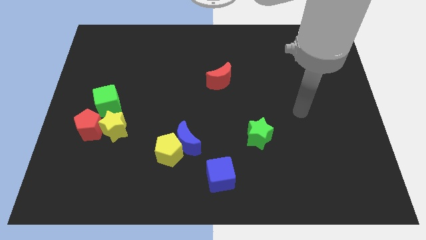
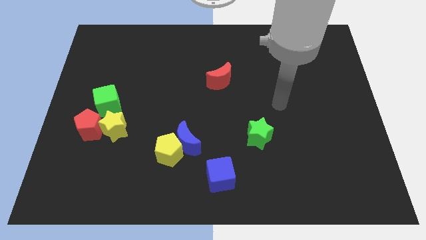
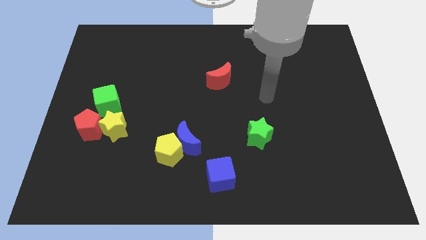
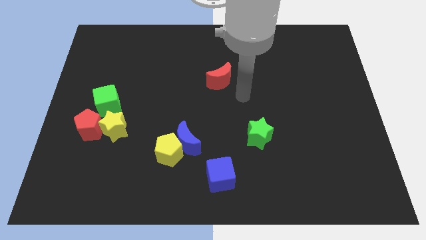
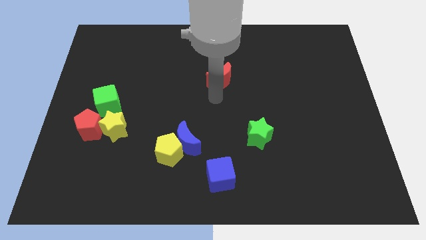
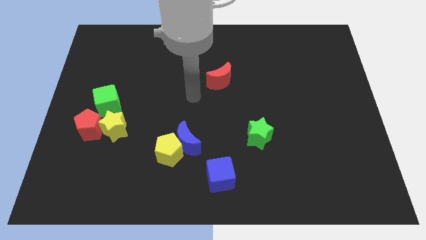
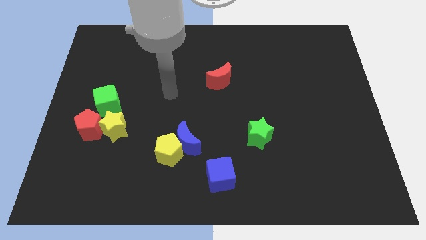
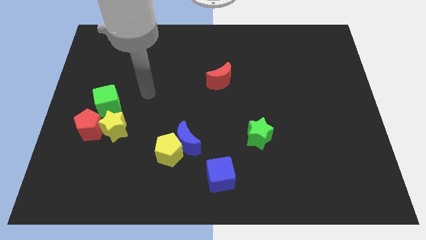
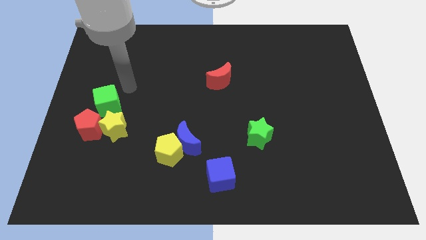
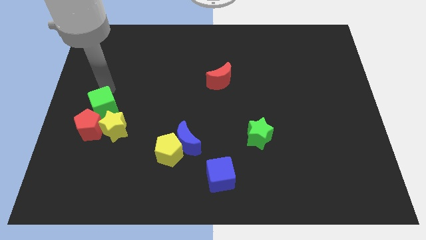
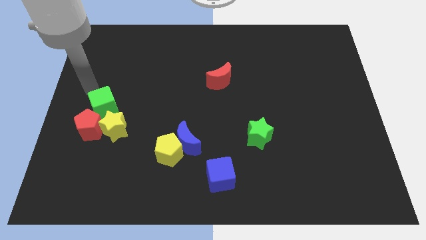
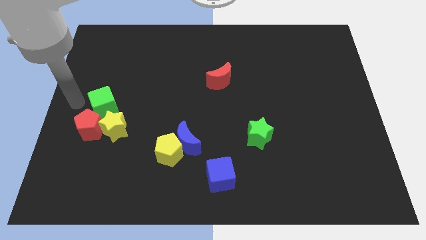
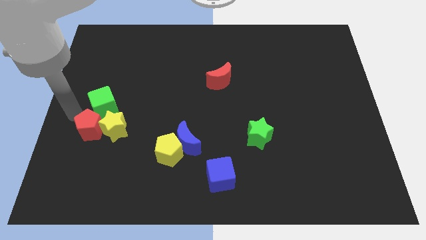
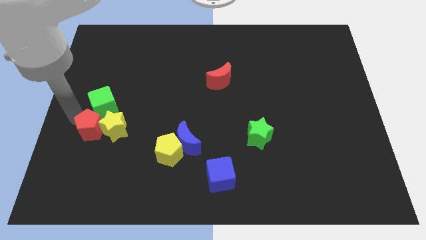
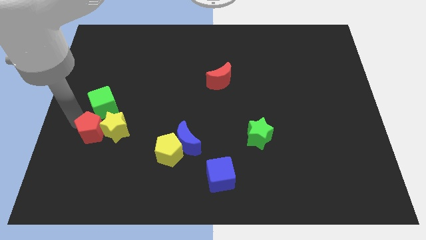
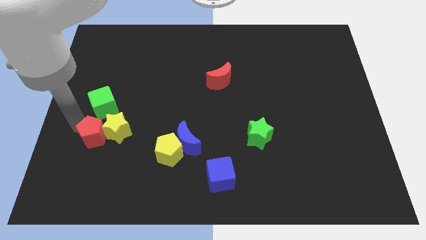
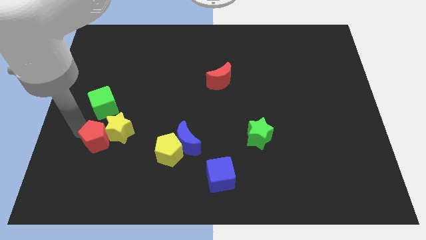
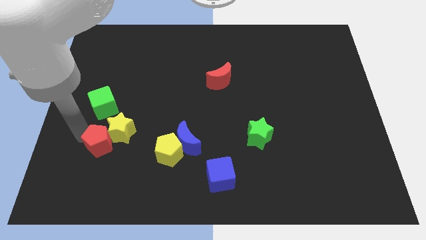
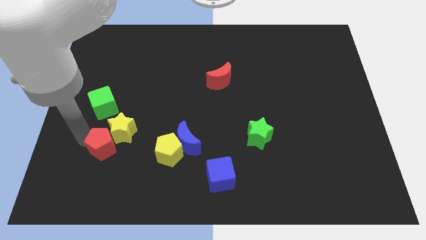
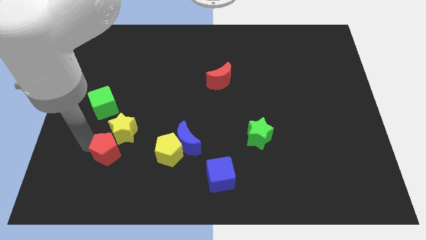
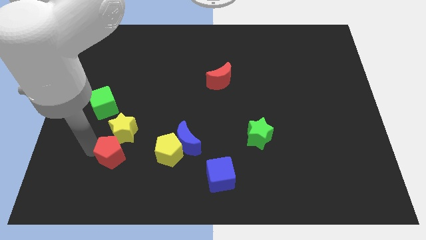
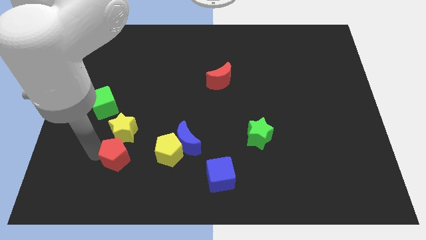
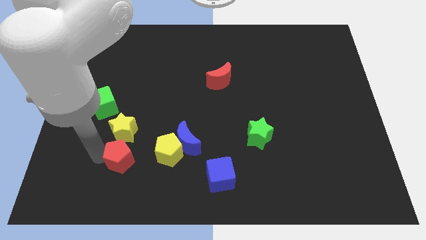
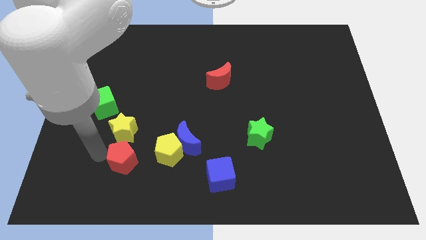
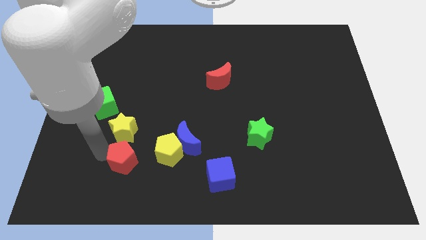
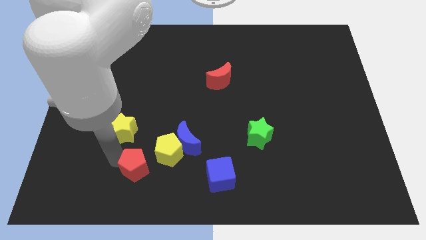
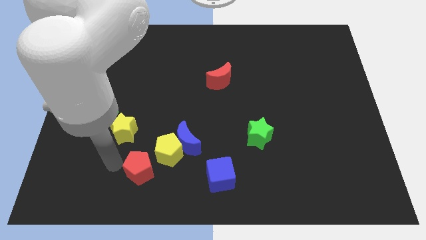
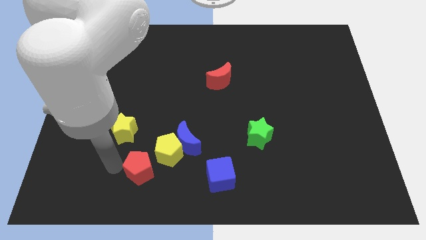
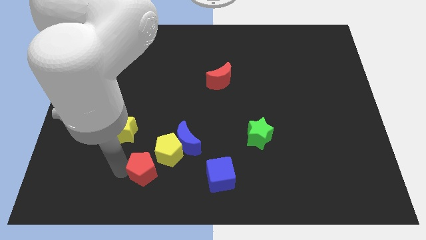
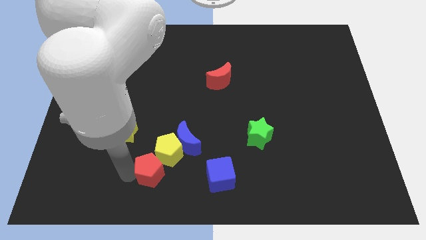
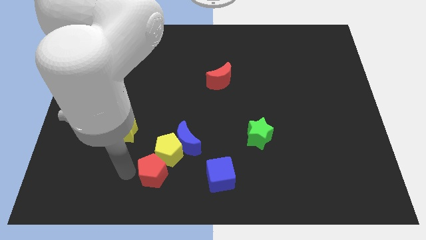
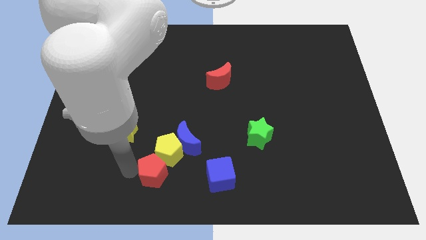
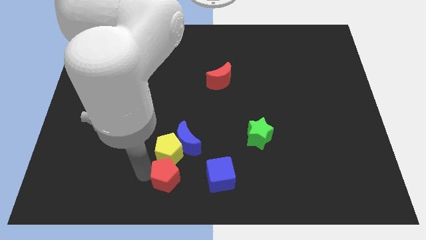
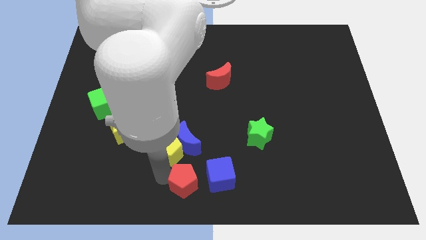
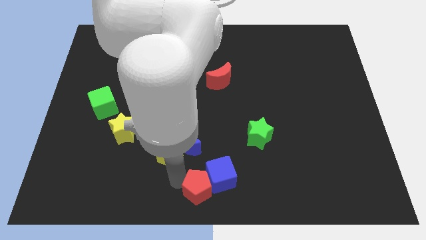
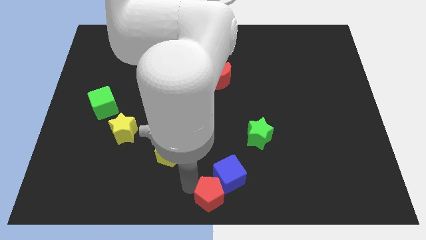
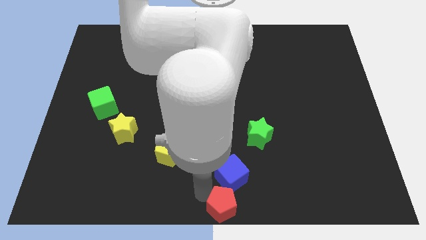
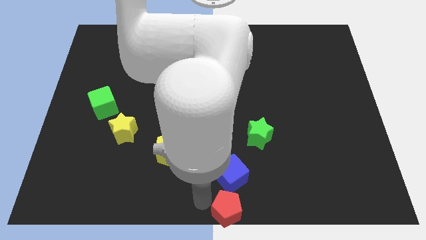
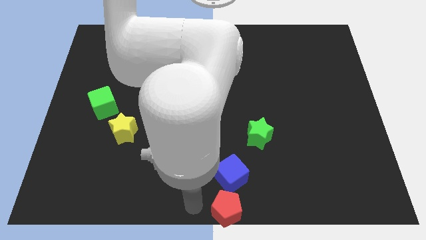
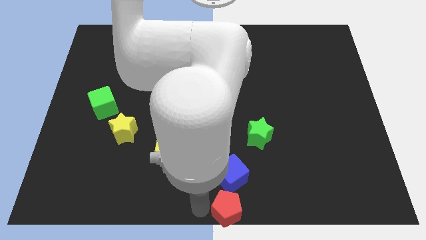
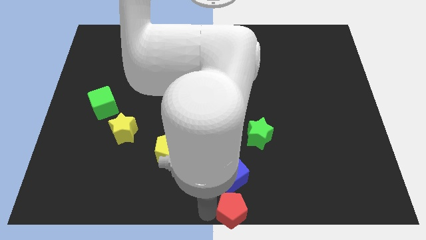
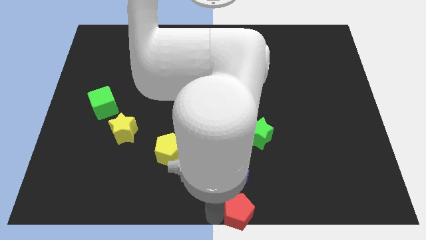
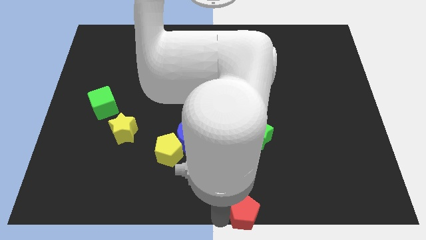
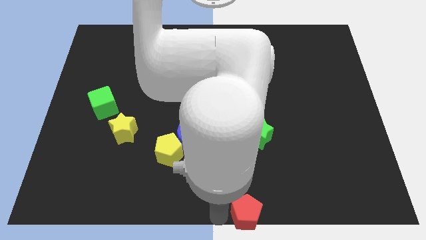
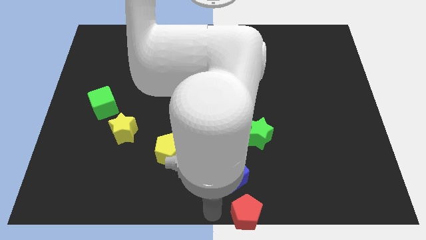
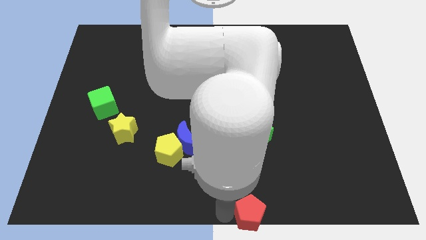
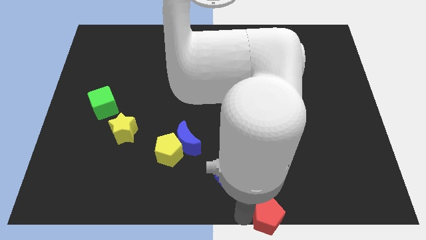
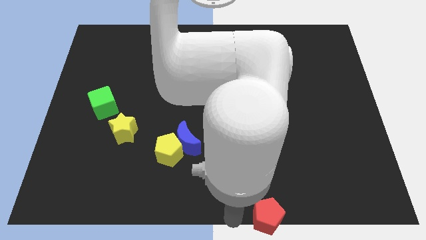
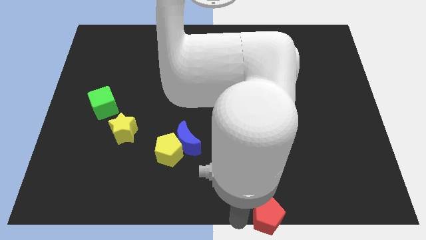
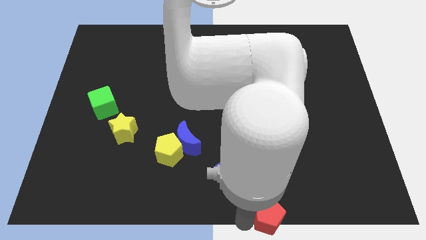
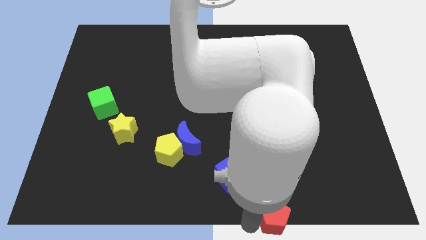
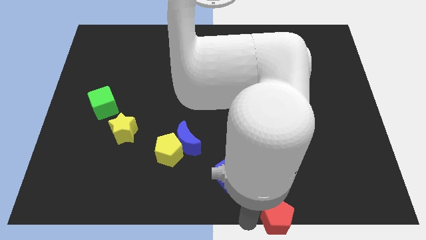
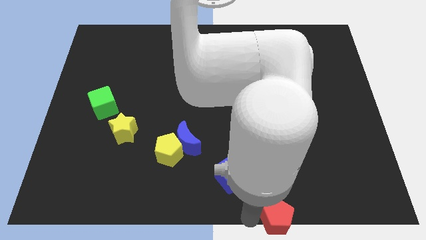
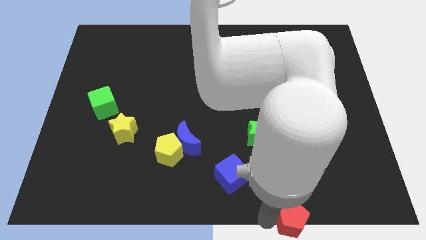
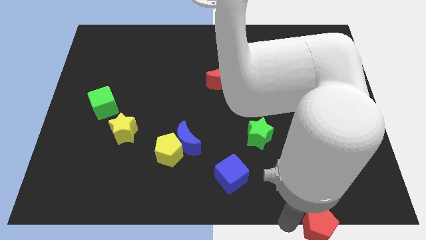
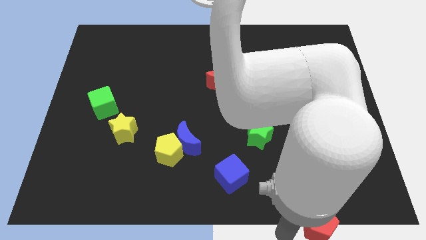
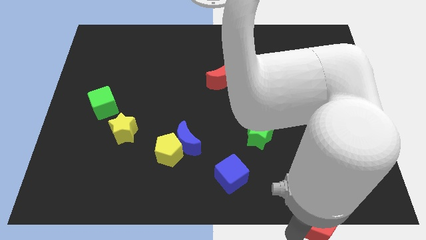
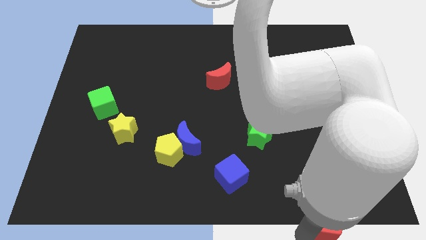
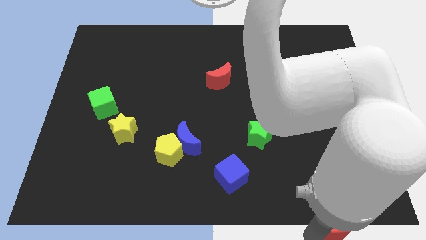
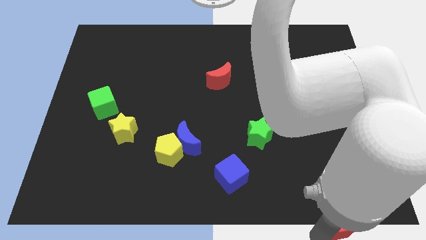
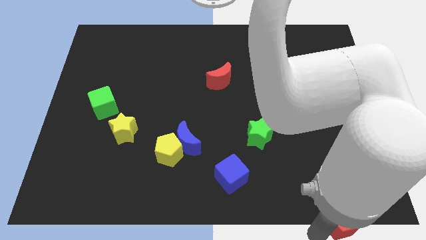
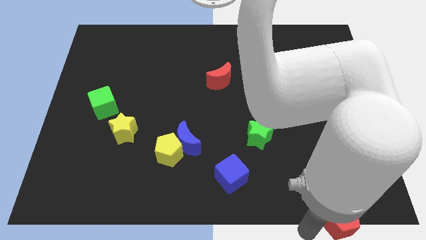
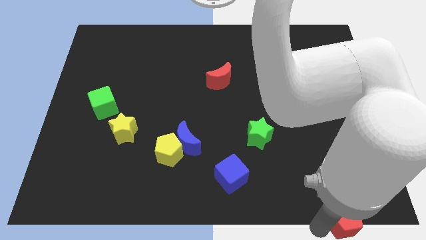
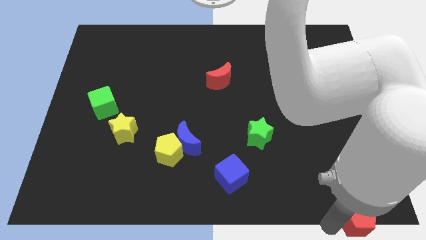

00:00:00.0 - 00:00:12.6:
slide the red pentagon to the bottom right corner
